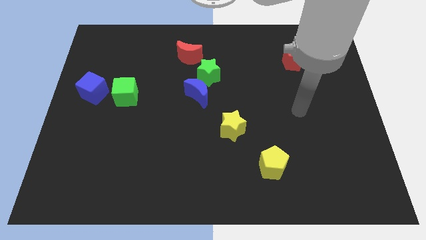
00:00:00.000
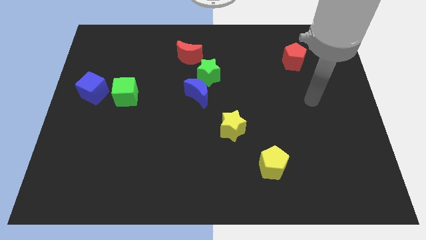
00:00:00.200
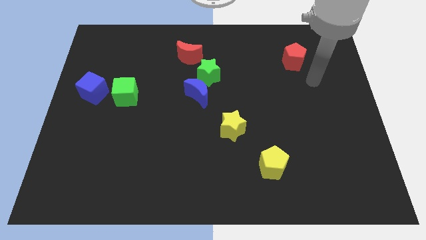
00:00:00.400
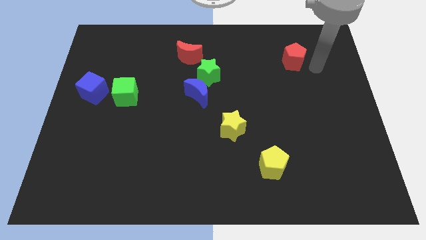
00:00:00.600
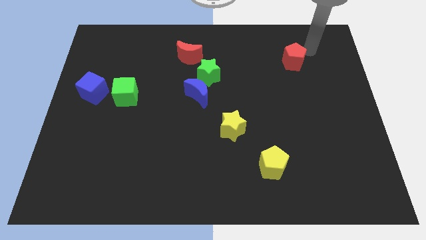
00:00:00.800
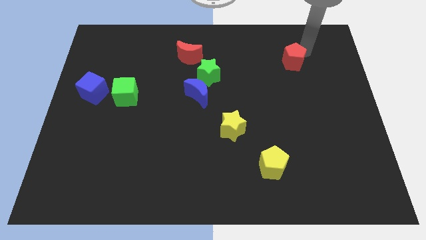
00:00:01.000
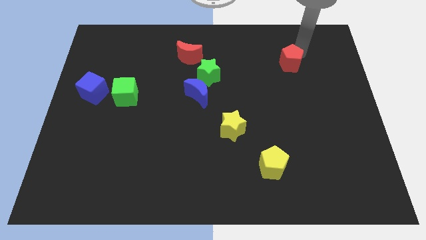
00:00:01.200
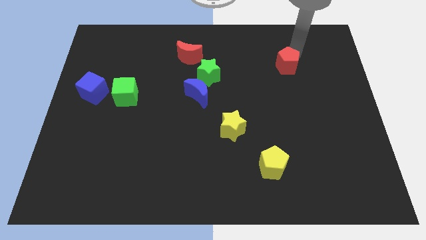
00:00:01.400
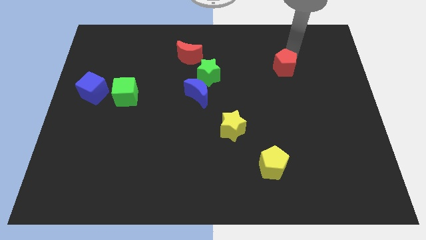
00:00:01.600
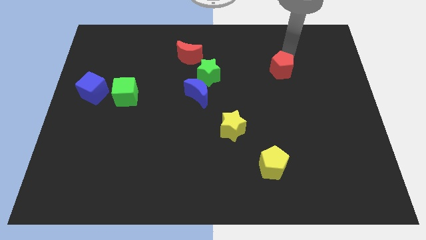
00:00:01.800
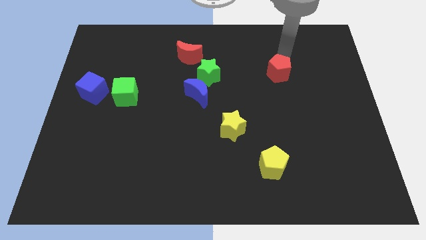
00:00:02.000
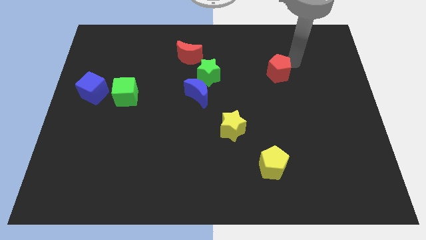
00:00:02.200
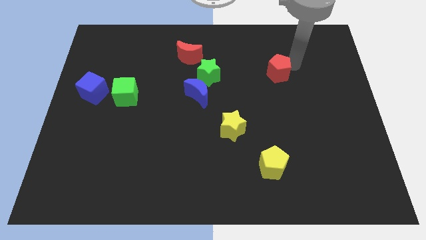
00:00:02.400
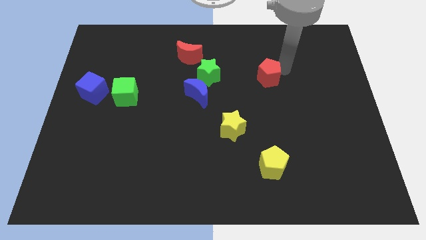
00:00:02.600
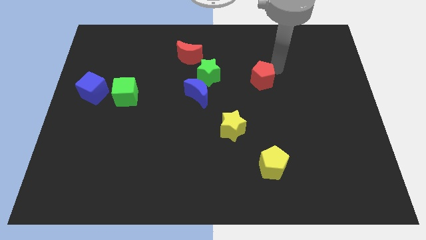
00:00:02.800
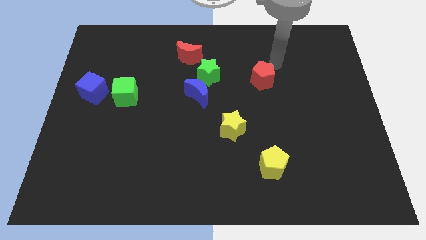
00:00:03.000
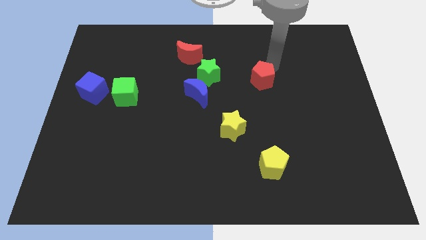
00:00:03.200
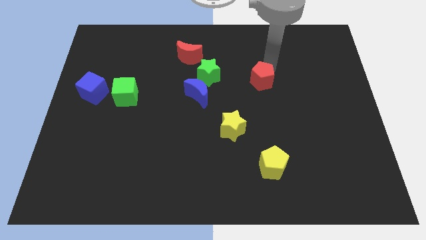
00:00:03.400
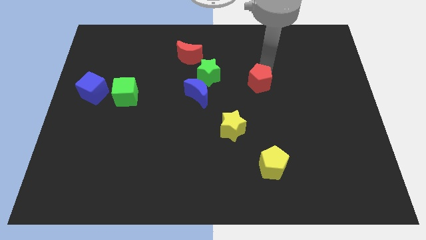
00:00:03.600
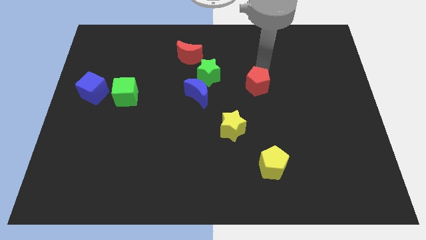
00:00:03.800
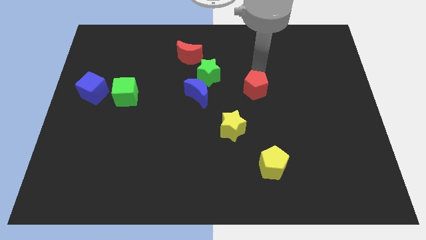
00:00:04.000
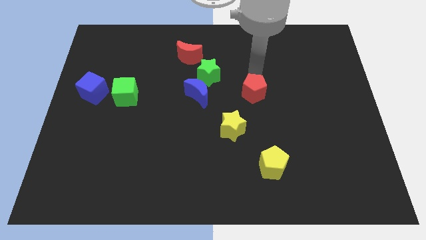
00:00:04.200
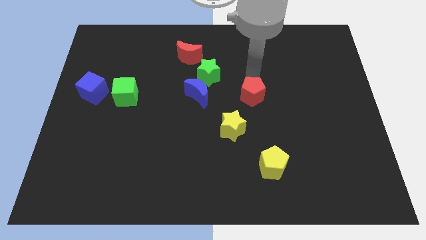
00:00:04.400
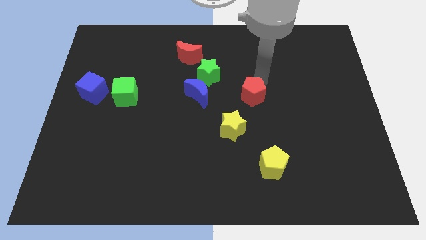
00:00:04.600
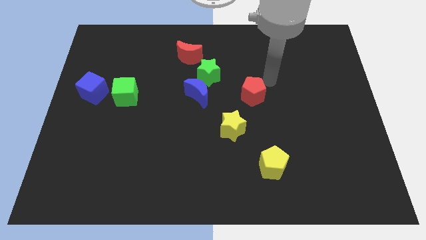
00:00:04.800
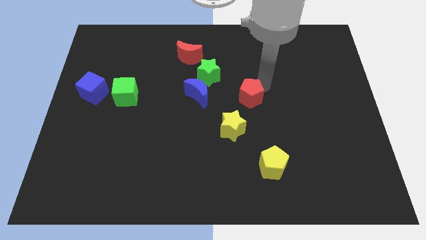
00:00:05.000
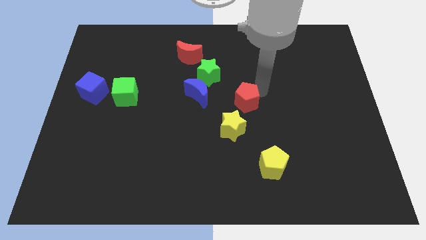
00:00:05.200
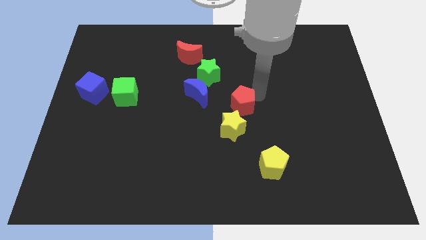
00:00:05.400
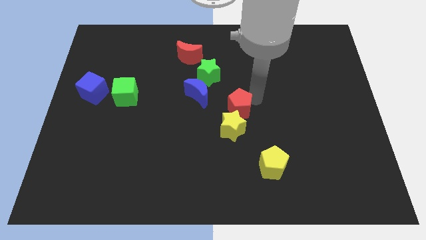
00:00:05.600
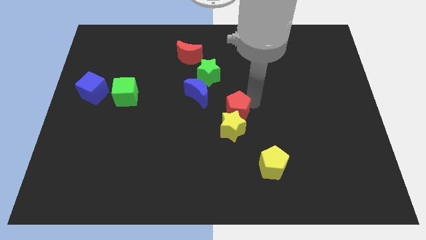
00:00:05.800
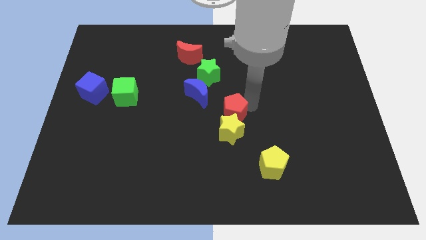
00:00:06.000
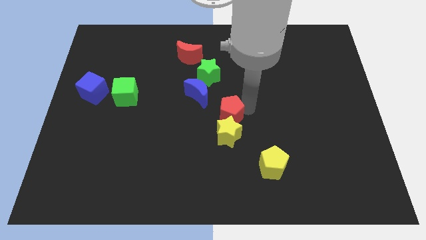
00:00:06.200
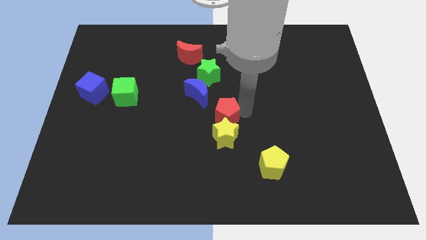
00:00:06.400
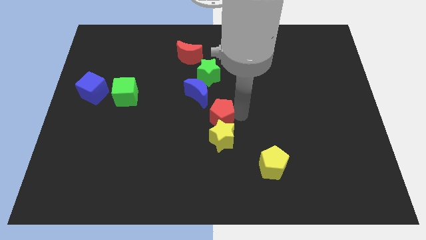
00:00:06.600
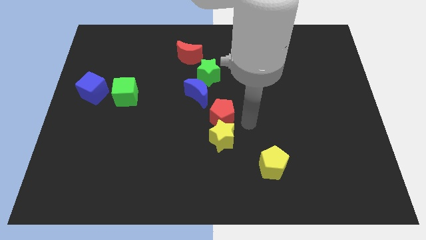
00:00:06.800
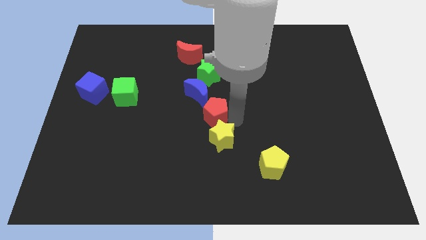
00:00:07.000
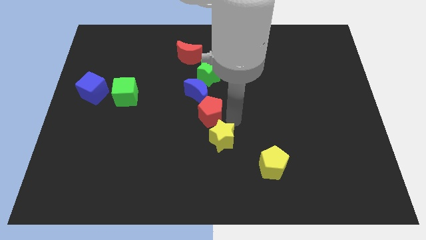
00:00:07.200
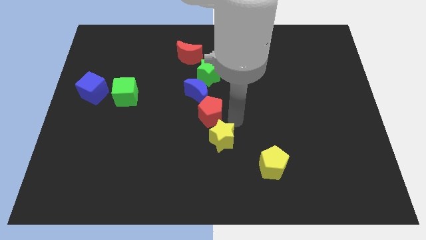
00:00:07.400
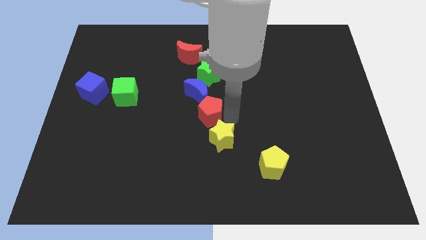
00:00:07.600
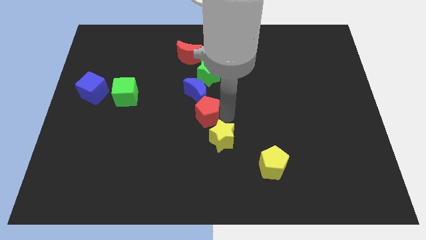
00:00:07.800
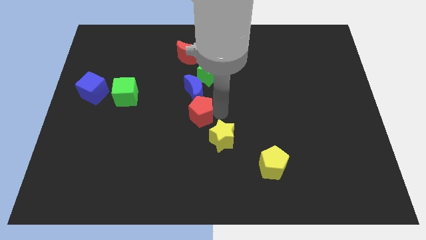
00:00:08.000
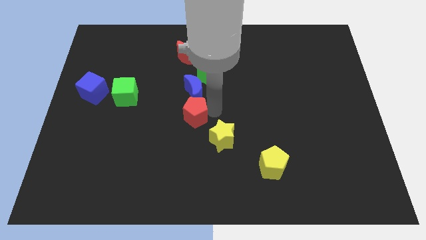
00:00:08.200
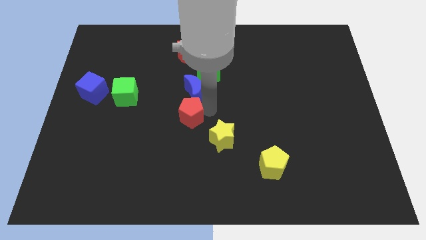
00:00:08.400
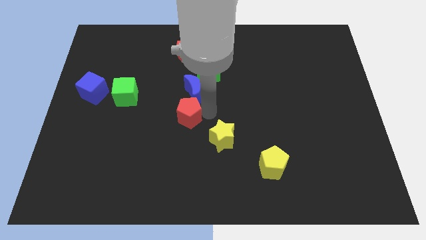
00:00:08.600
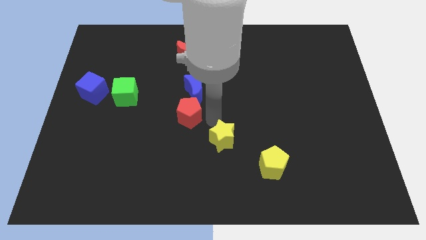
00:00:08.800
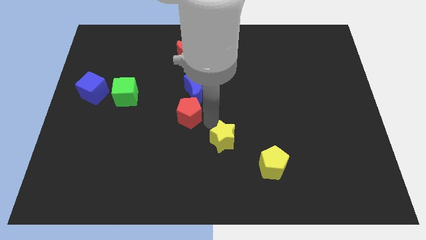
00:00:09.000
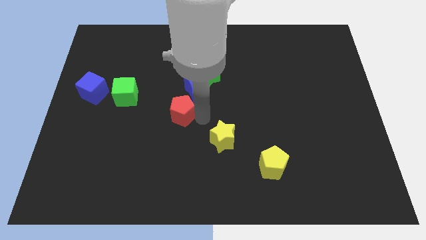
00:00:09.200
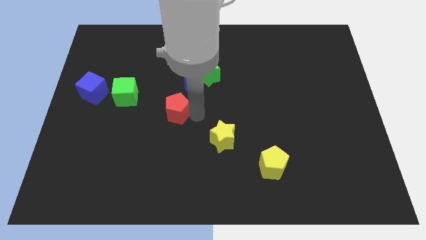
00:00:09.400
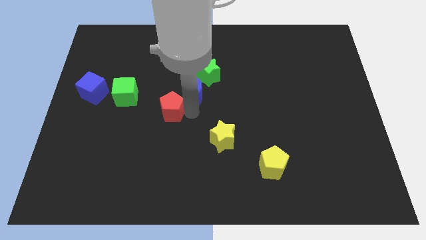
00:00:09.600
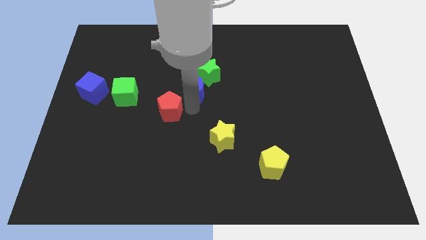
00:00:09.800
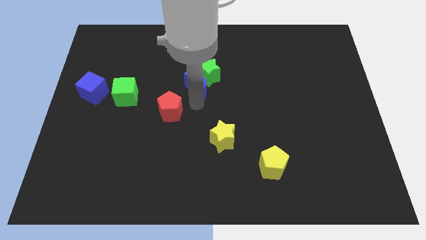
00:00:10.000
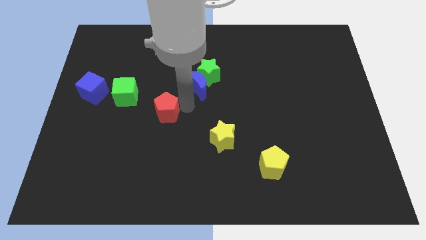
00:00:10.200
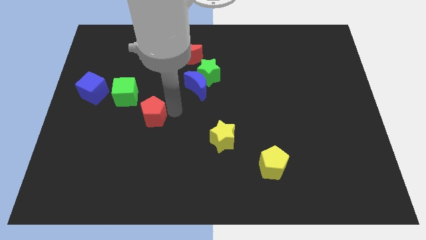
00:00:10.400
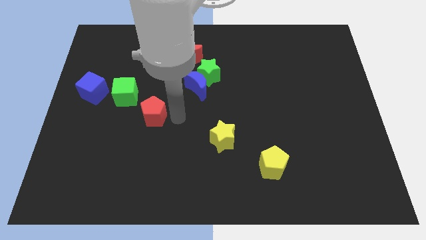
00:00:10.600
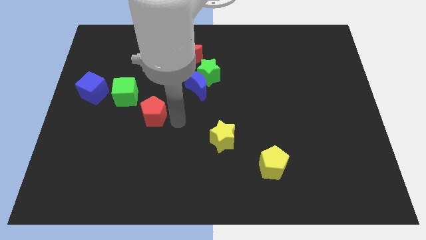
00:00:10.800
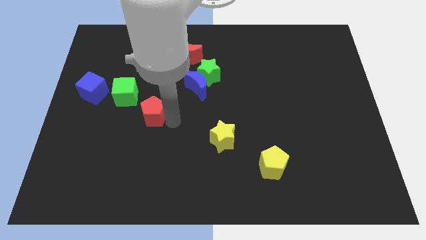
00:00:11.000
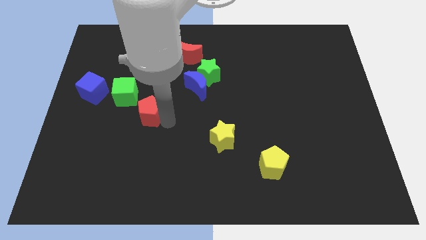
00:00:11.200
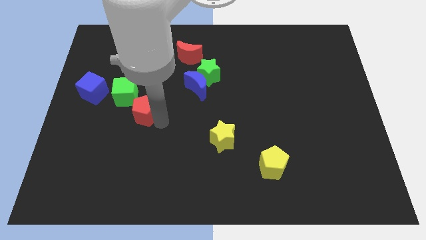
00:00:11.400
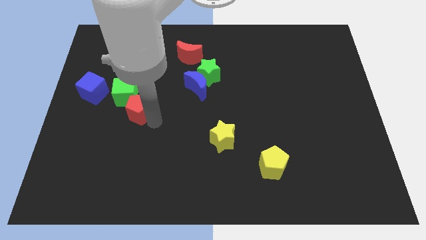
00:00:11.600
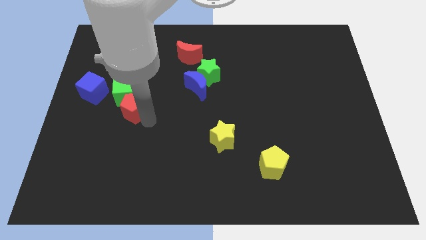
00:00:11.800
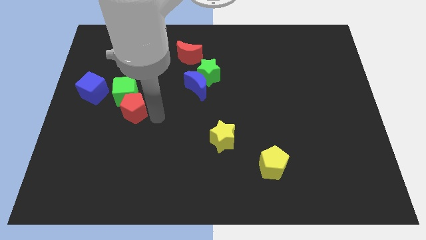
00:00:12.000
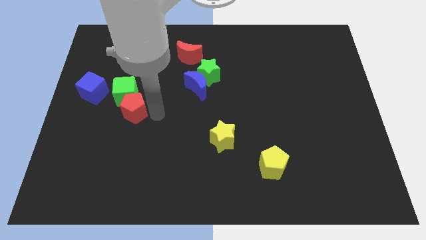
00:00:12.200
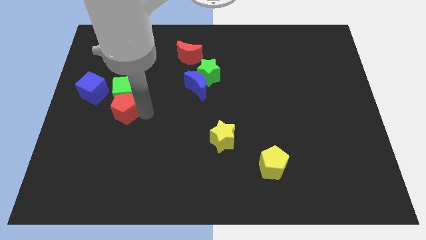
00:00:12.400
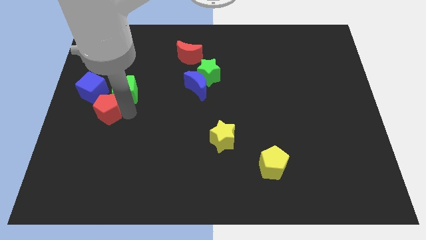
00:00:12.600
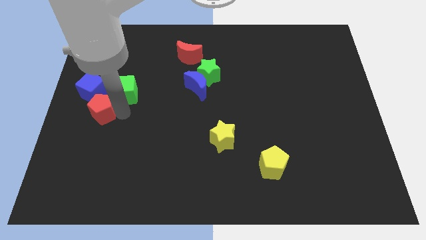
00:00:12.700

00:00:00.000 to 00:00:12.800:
push the red pentagon to the center left
